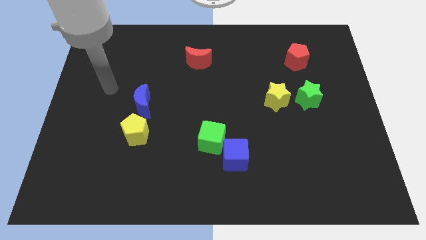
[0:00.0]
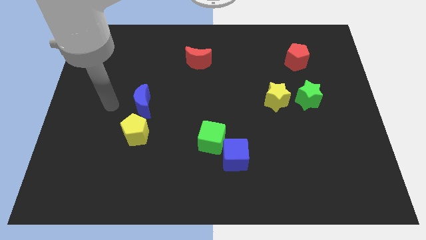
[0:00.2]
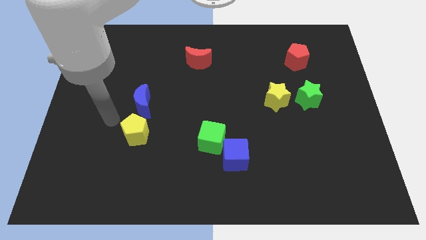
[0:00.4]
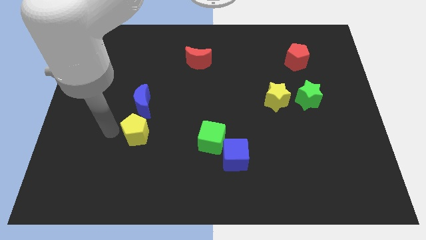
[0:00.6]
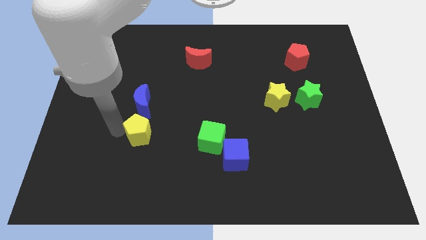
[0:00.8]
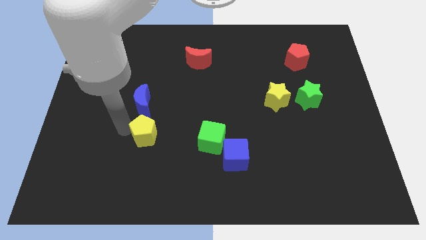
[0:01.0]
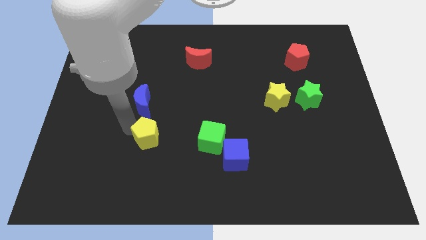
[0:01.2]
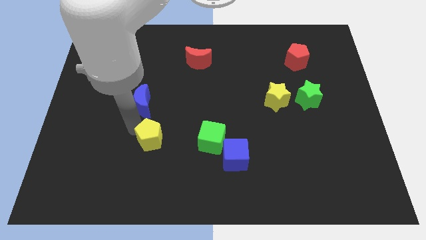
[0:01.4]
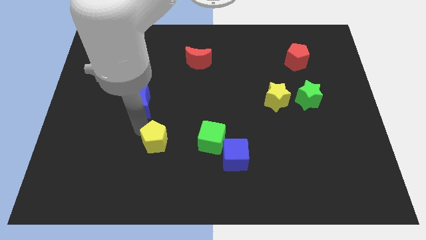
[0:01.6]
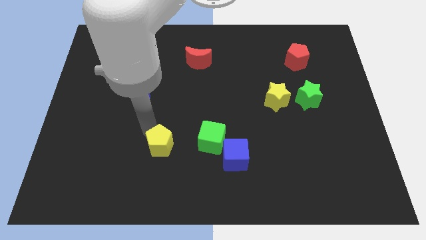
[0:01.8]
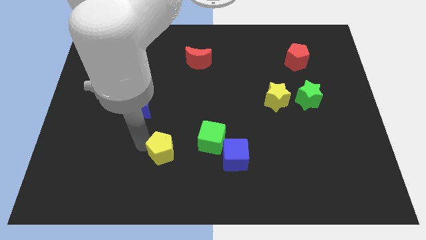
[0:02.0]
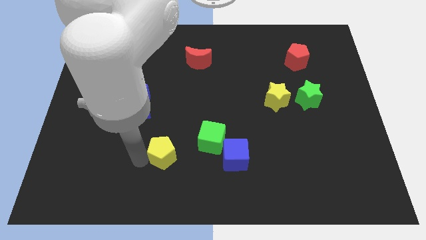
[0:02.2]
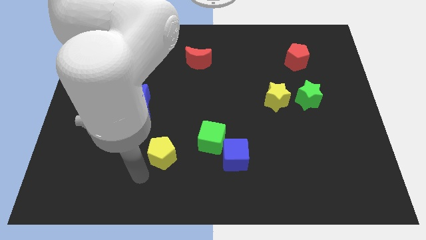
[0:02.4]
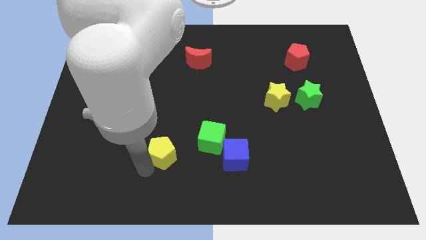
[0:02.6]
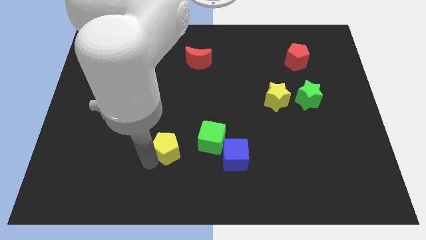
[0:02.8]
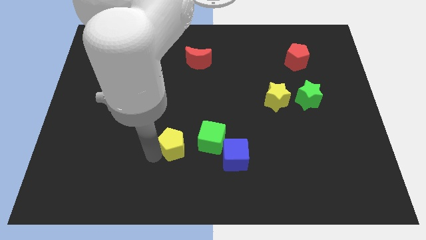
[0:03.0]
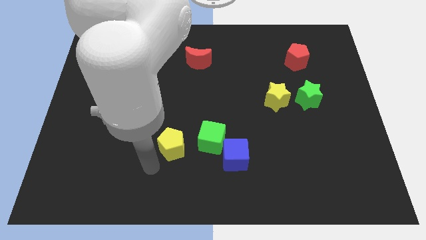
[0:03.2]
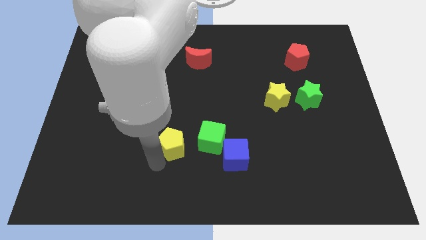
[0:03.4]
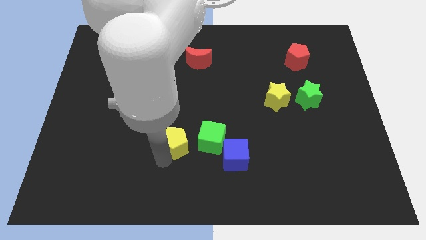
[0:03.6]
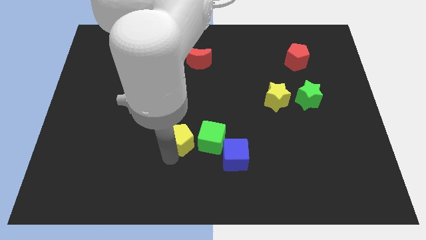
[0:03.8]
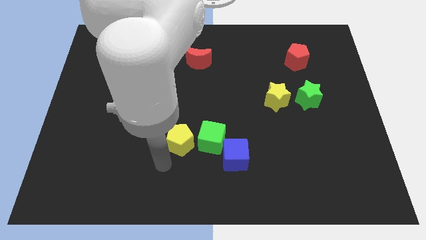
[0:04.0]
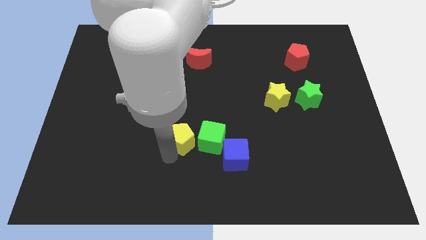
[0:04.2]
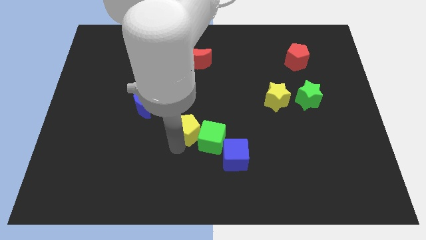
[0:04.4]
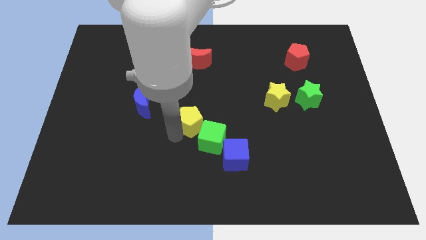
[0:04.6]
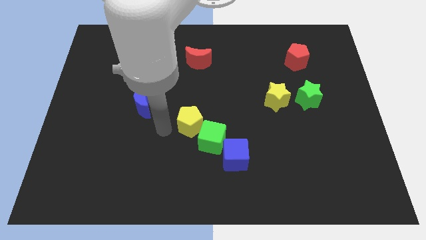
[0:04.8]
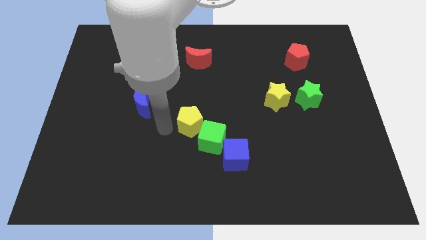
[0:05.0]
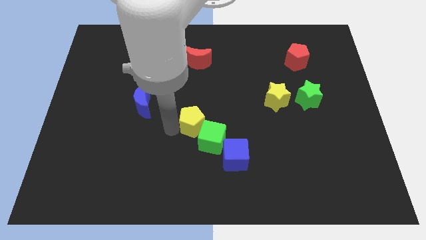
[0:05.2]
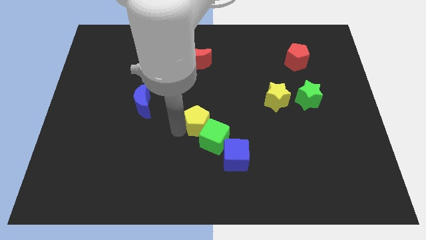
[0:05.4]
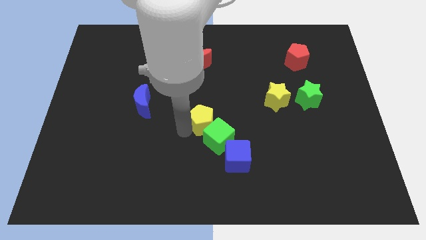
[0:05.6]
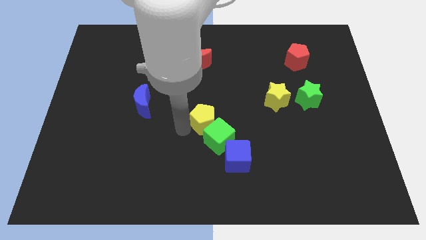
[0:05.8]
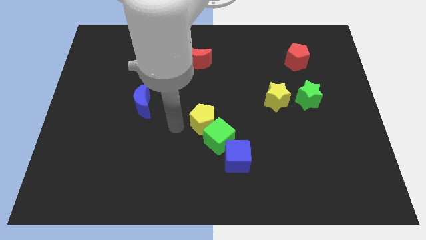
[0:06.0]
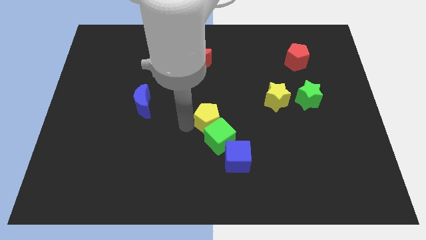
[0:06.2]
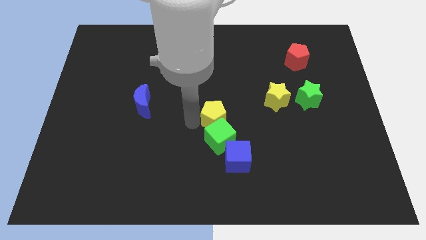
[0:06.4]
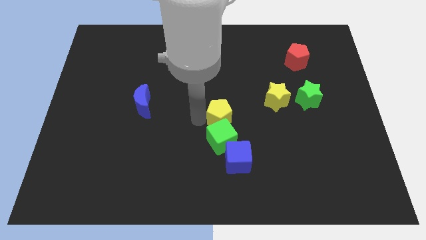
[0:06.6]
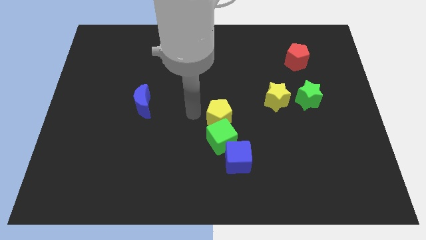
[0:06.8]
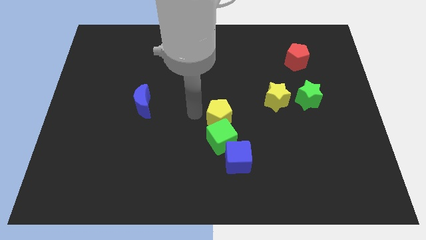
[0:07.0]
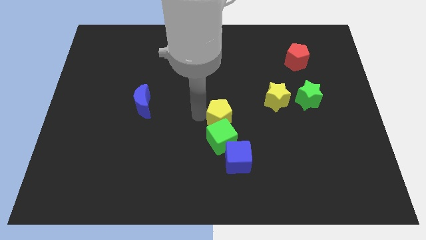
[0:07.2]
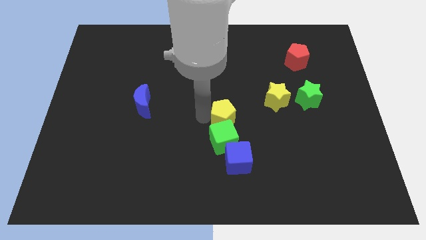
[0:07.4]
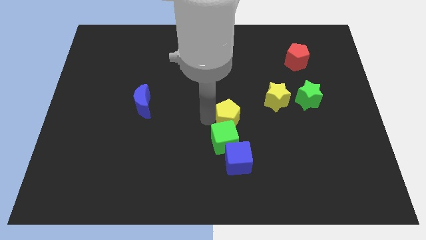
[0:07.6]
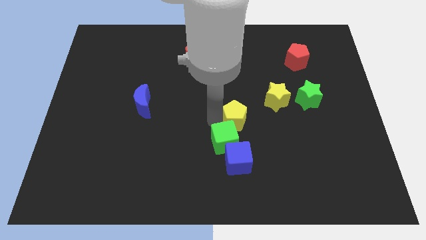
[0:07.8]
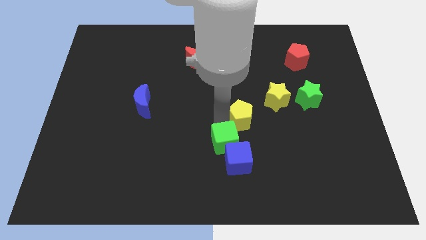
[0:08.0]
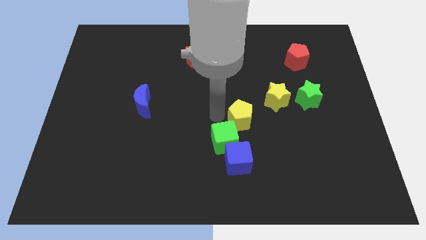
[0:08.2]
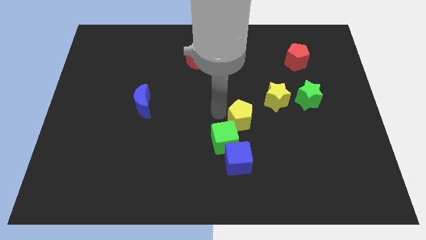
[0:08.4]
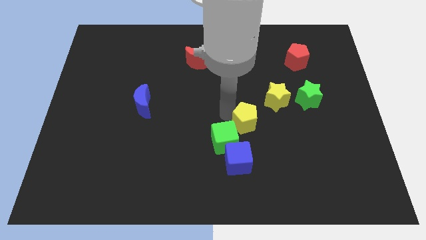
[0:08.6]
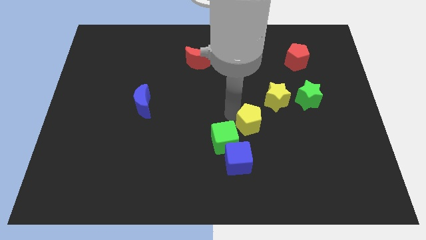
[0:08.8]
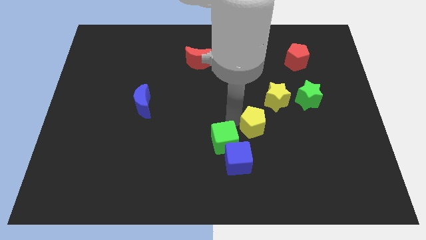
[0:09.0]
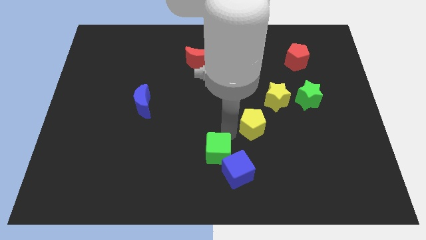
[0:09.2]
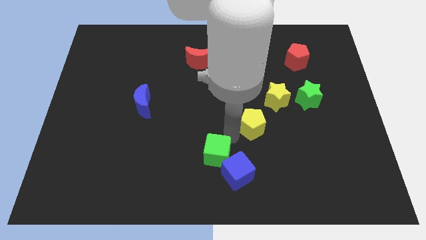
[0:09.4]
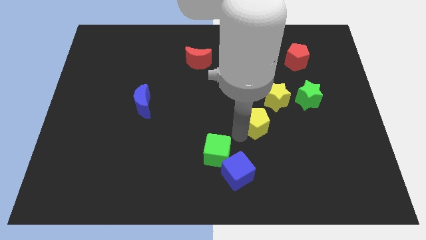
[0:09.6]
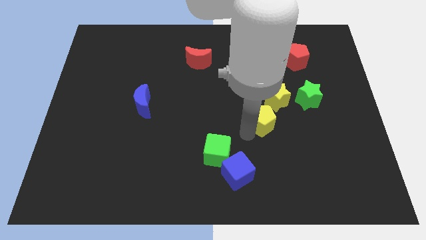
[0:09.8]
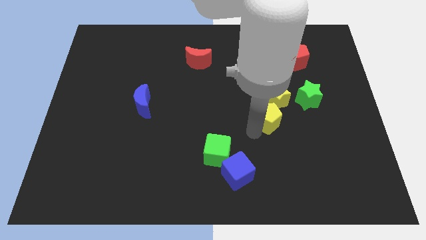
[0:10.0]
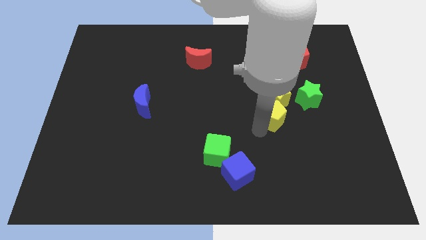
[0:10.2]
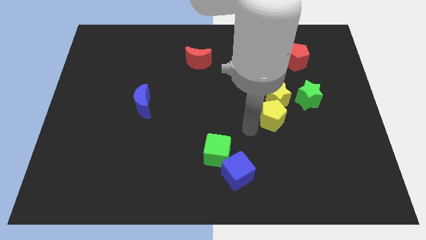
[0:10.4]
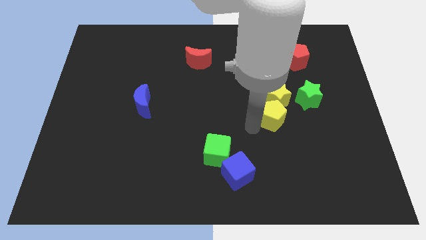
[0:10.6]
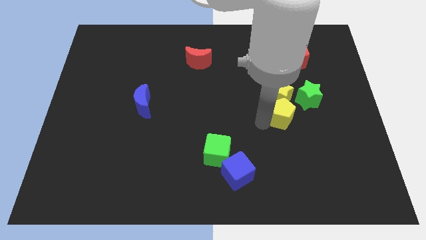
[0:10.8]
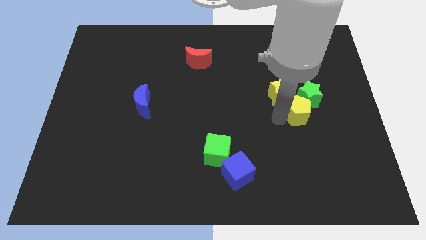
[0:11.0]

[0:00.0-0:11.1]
move the yellow pentagon towards the green star

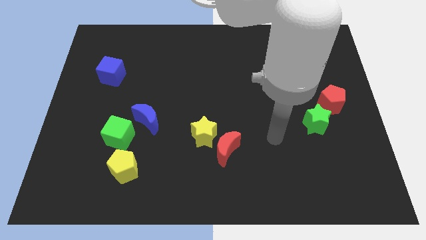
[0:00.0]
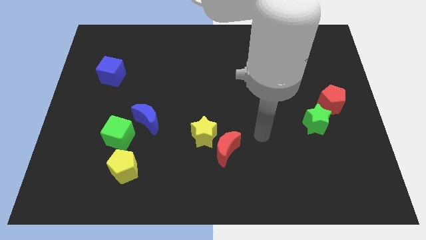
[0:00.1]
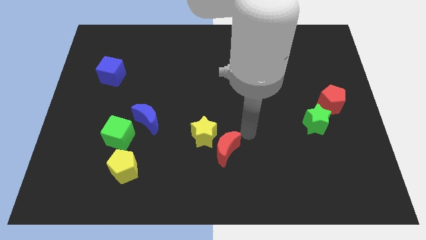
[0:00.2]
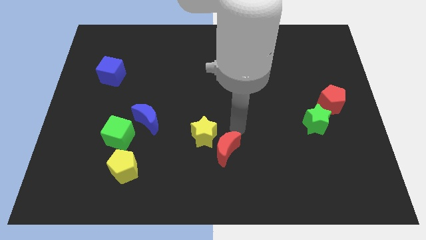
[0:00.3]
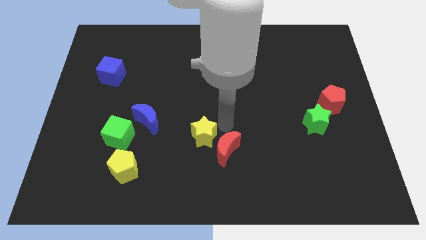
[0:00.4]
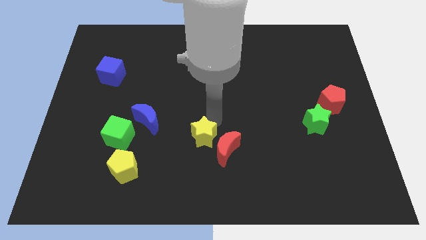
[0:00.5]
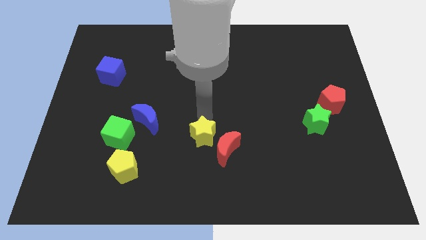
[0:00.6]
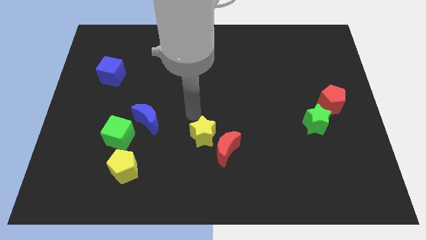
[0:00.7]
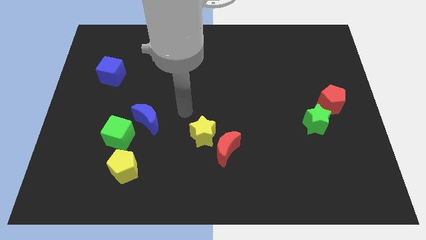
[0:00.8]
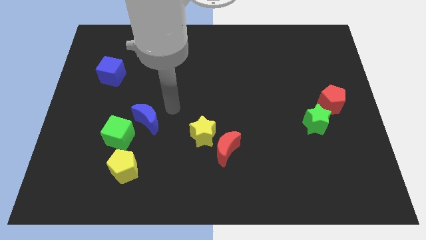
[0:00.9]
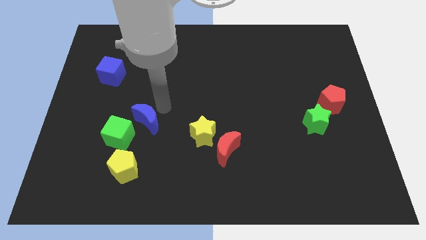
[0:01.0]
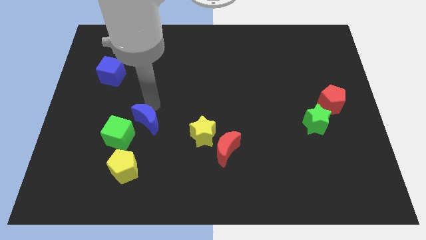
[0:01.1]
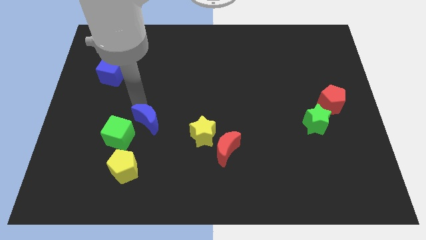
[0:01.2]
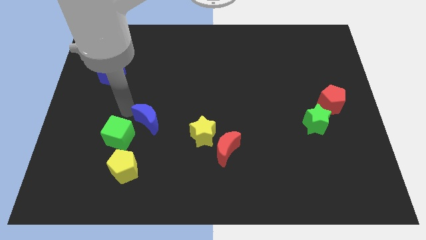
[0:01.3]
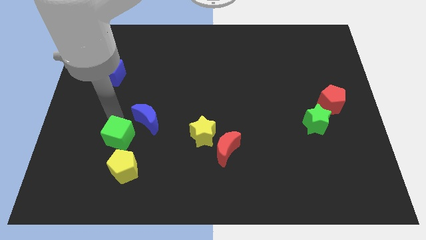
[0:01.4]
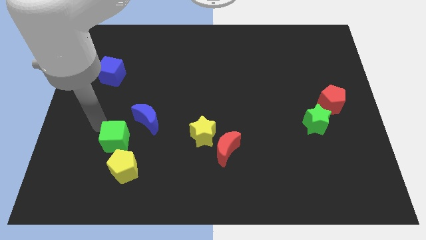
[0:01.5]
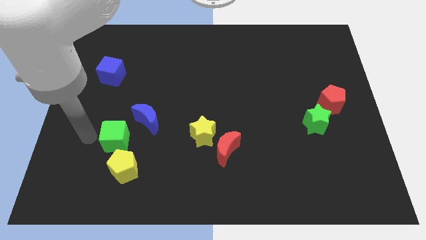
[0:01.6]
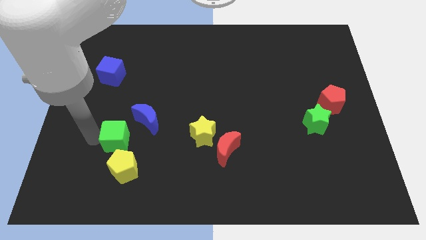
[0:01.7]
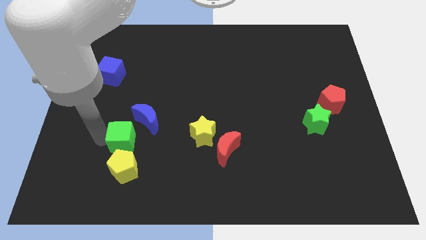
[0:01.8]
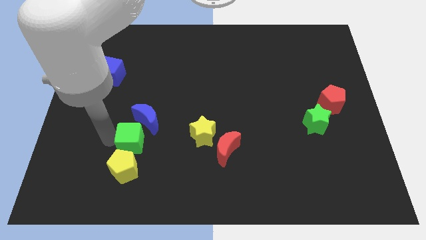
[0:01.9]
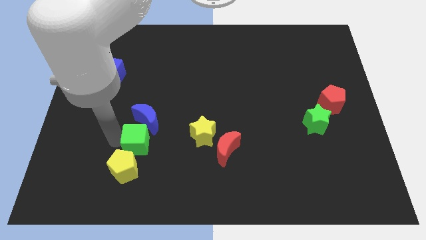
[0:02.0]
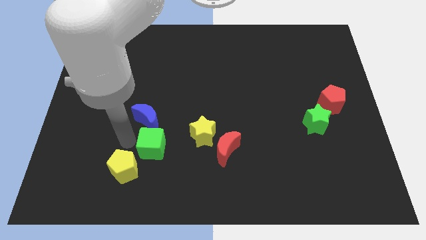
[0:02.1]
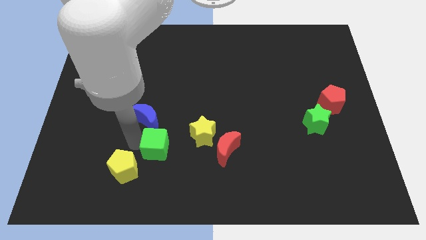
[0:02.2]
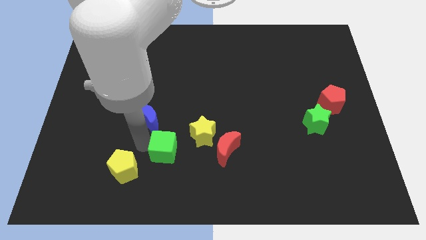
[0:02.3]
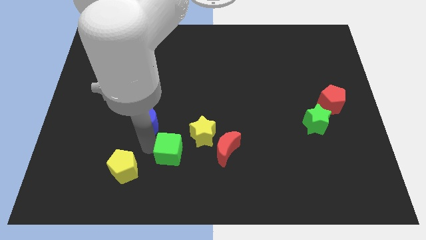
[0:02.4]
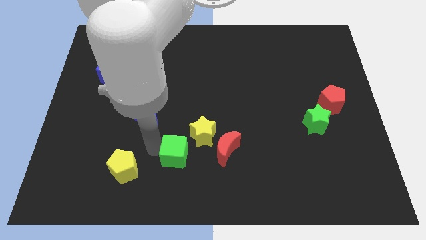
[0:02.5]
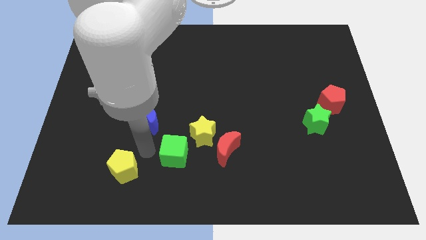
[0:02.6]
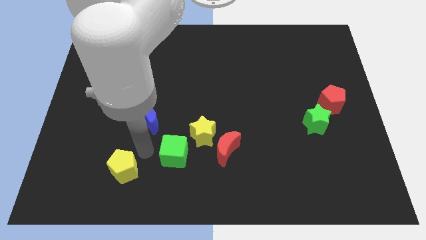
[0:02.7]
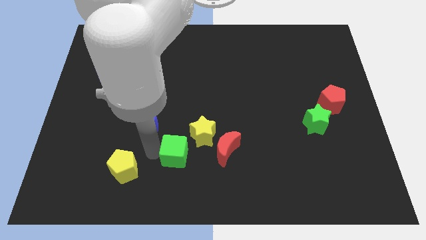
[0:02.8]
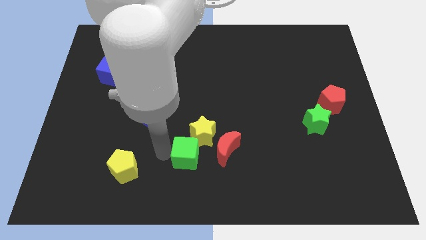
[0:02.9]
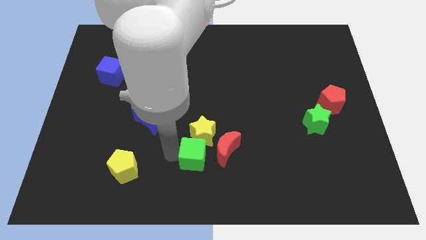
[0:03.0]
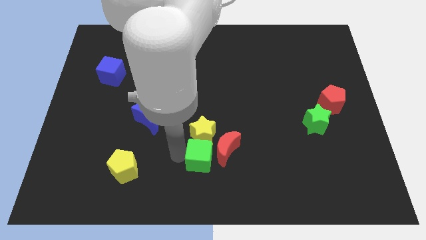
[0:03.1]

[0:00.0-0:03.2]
move the green cube close to the red moon
